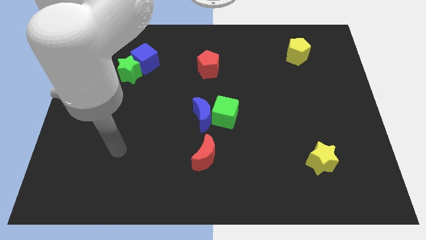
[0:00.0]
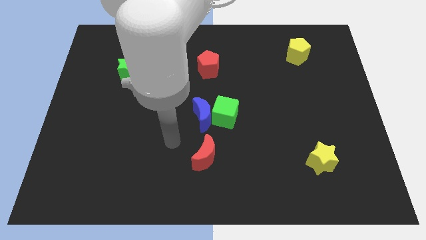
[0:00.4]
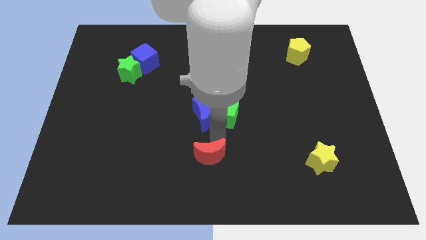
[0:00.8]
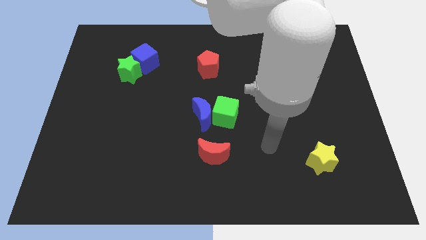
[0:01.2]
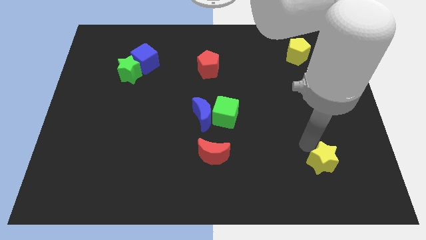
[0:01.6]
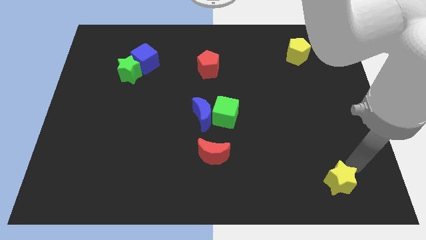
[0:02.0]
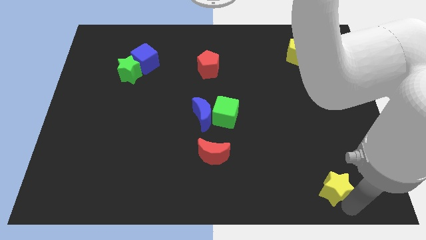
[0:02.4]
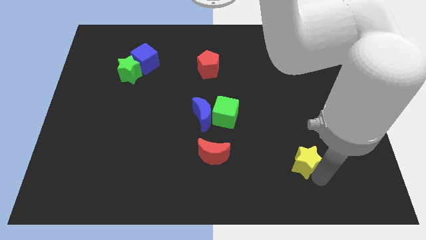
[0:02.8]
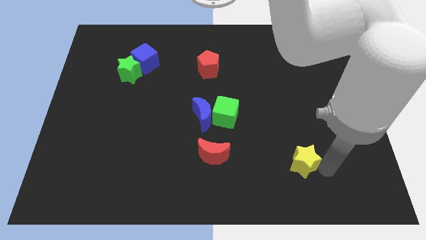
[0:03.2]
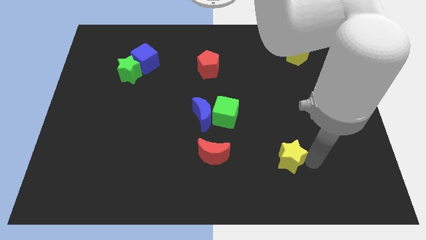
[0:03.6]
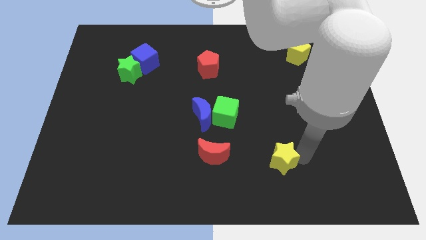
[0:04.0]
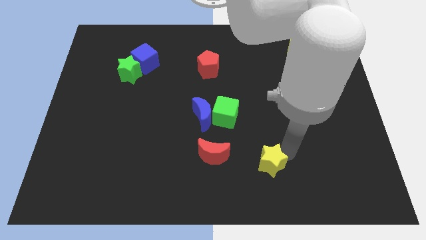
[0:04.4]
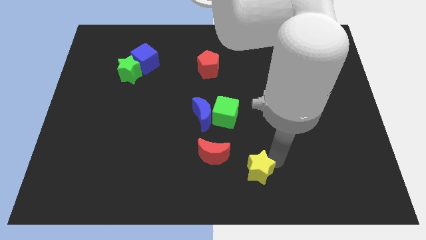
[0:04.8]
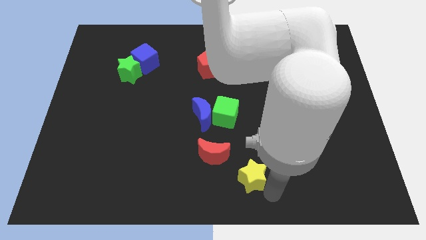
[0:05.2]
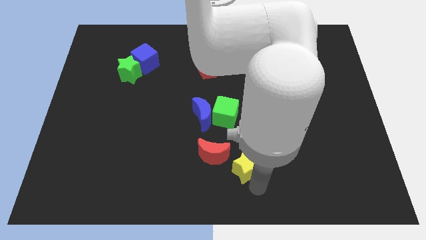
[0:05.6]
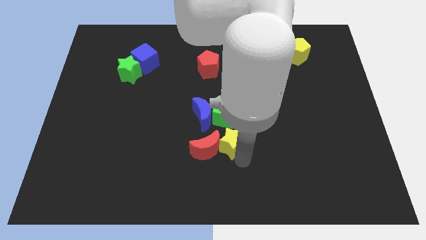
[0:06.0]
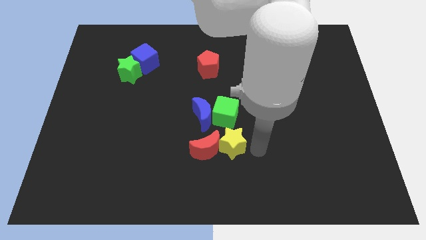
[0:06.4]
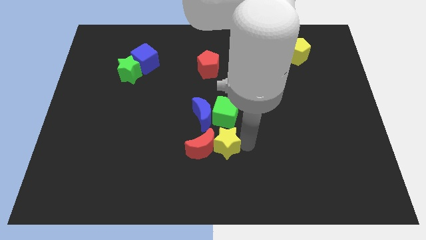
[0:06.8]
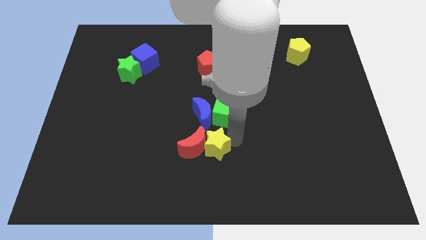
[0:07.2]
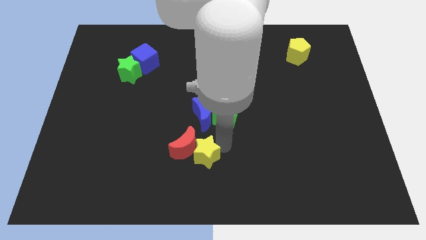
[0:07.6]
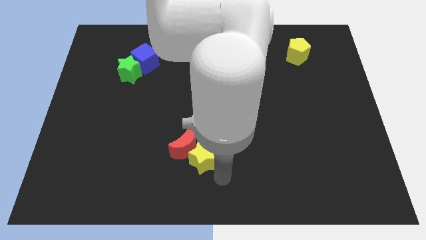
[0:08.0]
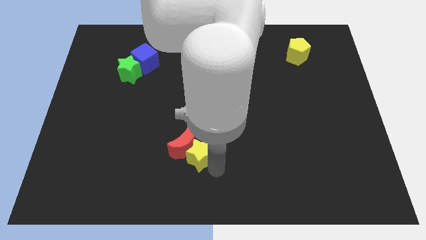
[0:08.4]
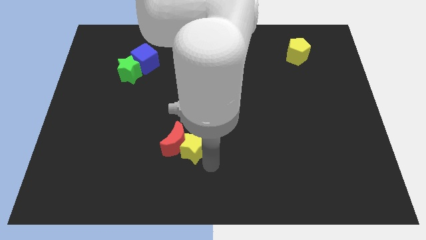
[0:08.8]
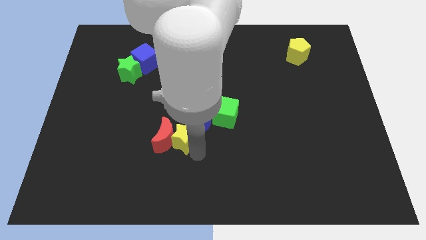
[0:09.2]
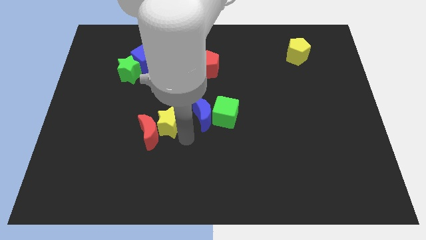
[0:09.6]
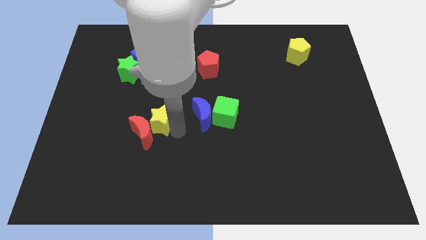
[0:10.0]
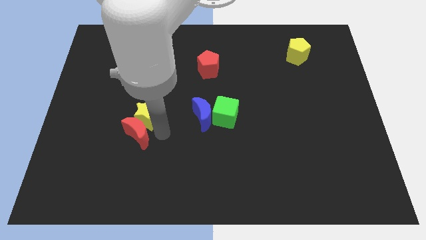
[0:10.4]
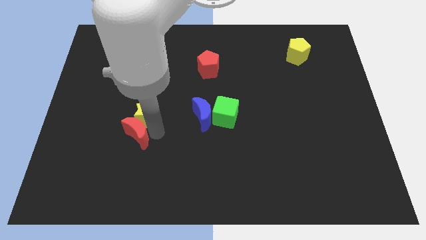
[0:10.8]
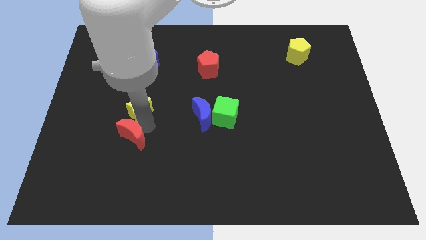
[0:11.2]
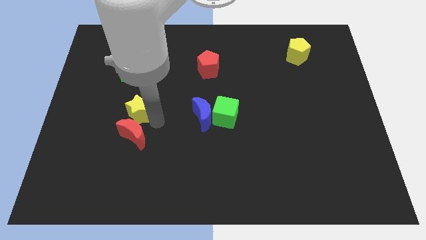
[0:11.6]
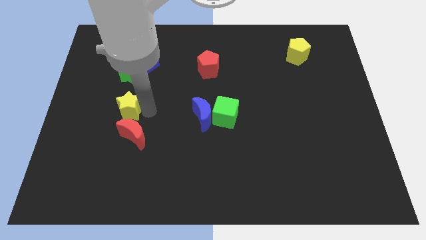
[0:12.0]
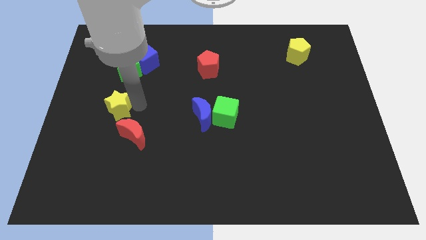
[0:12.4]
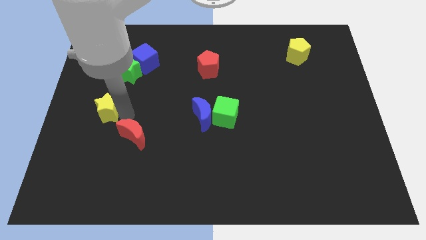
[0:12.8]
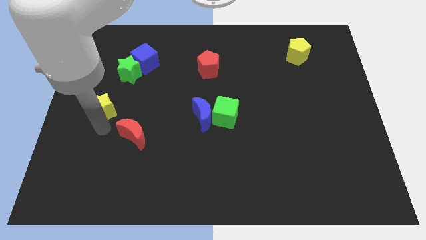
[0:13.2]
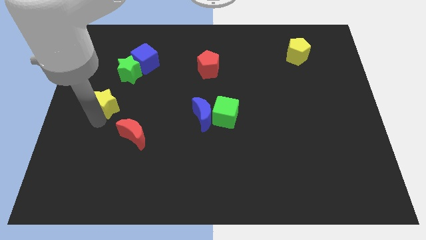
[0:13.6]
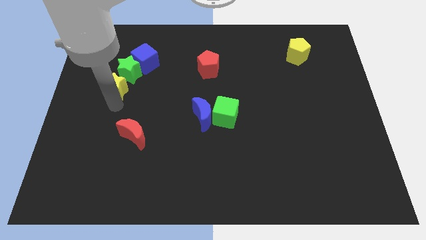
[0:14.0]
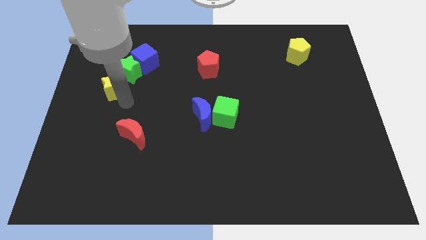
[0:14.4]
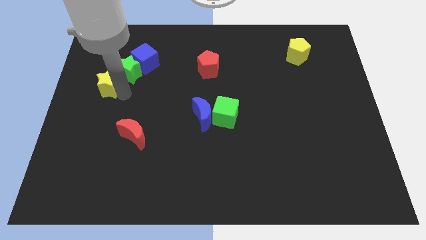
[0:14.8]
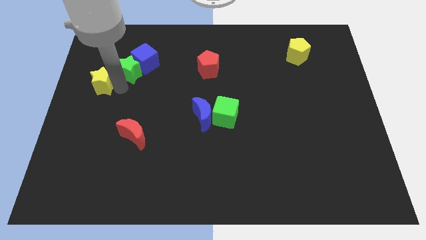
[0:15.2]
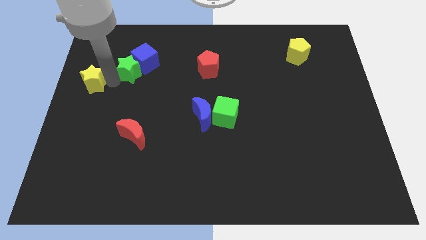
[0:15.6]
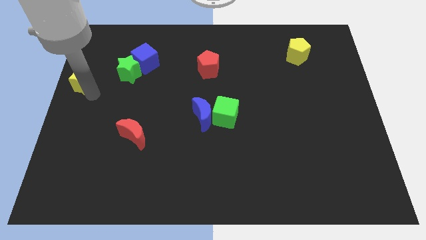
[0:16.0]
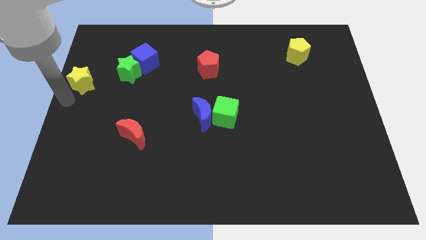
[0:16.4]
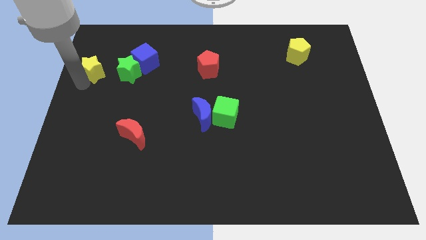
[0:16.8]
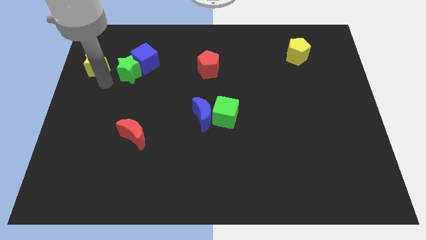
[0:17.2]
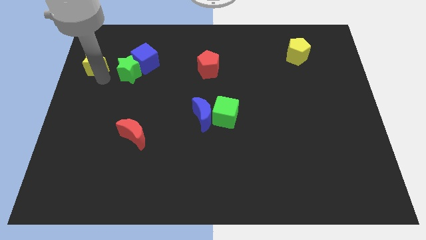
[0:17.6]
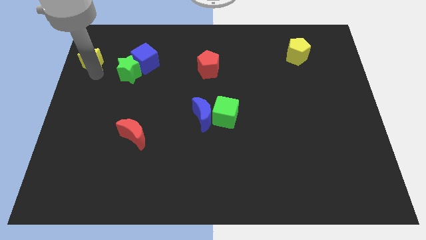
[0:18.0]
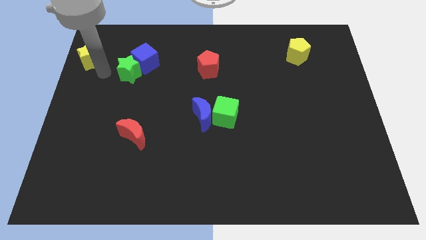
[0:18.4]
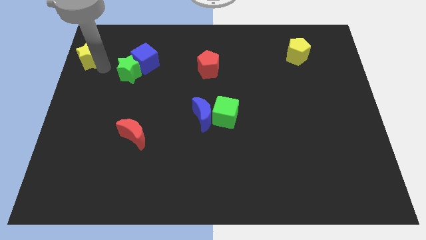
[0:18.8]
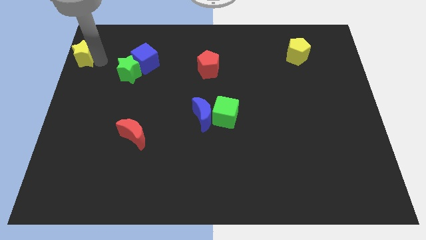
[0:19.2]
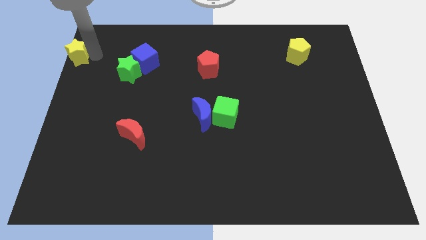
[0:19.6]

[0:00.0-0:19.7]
put the yellow star to the upper left corner

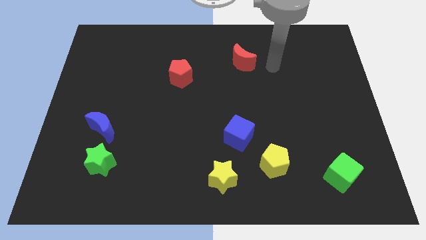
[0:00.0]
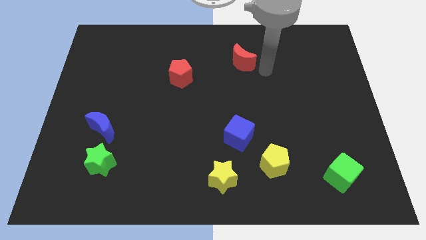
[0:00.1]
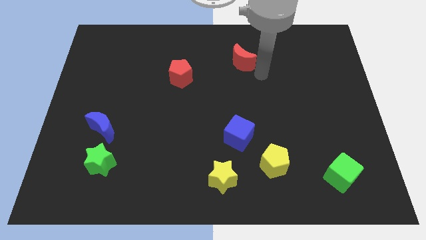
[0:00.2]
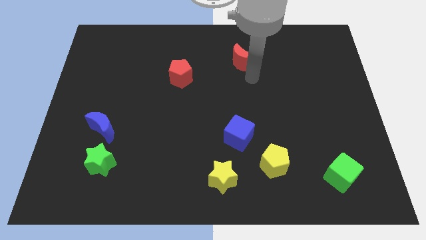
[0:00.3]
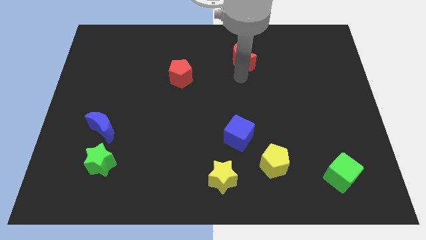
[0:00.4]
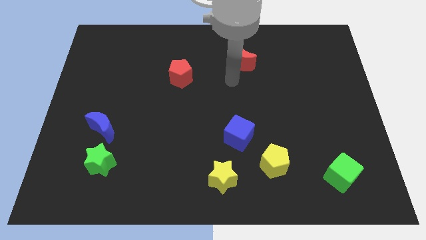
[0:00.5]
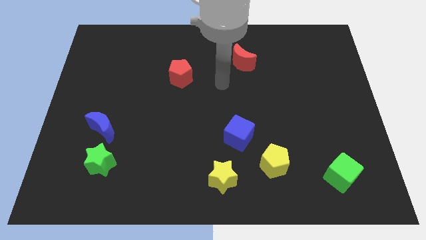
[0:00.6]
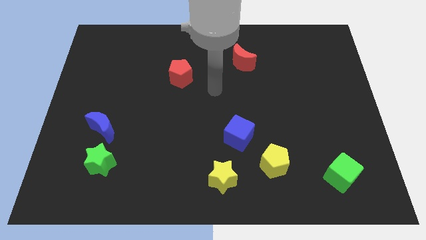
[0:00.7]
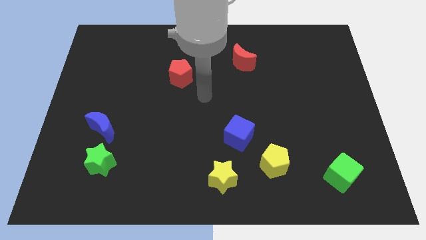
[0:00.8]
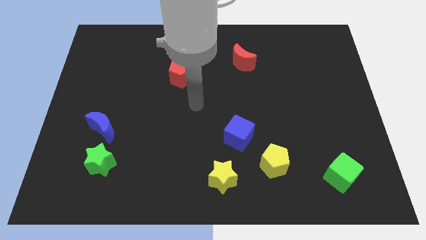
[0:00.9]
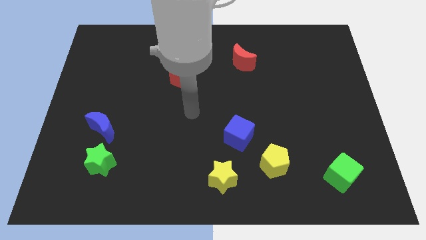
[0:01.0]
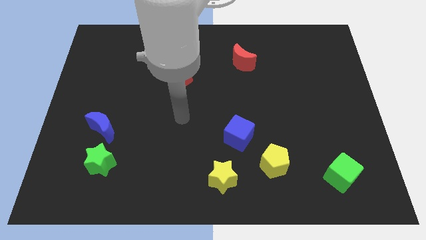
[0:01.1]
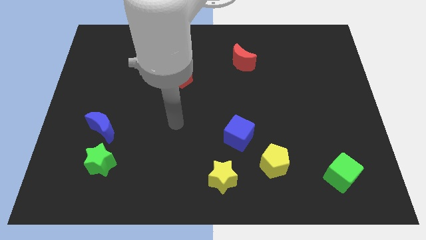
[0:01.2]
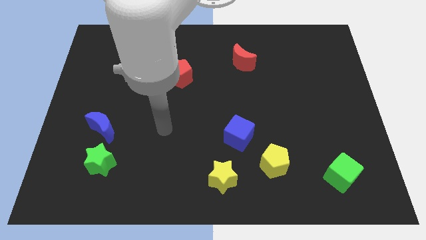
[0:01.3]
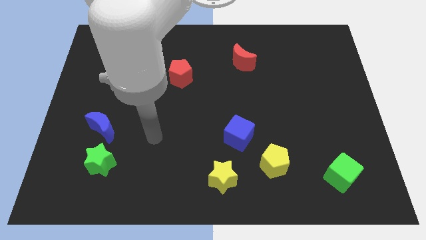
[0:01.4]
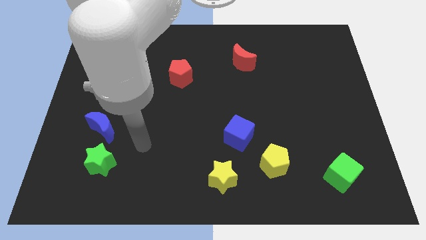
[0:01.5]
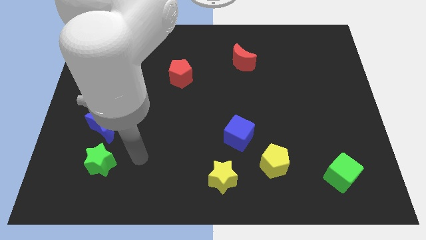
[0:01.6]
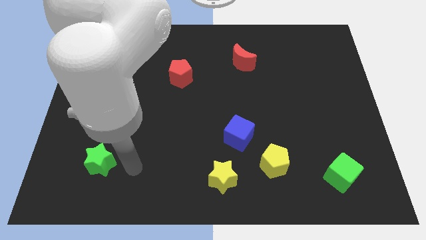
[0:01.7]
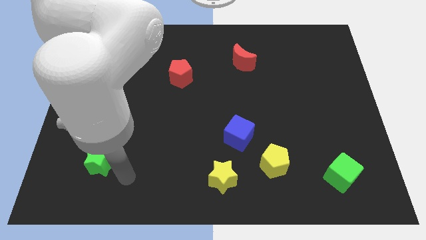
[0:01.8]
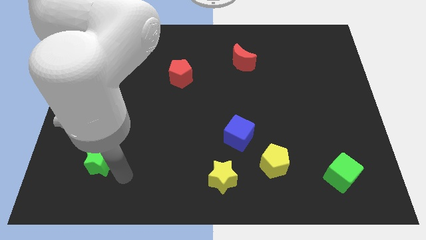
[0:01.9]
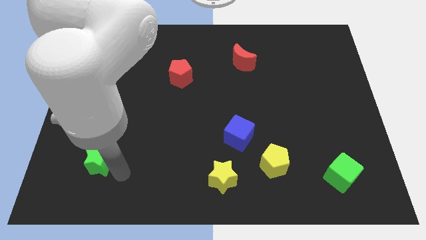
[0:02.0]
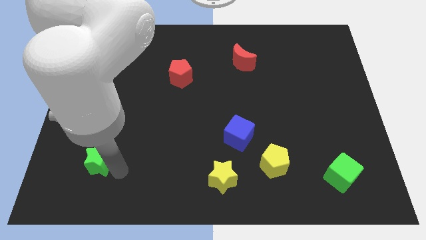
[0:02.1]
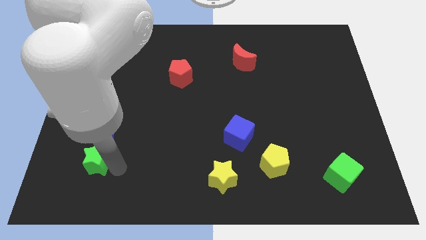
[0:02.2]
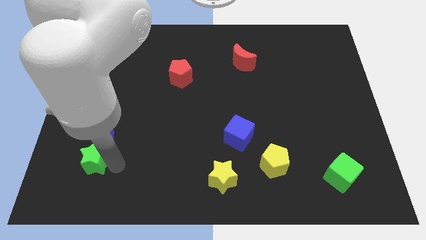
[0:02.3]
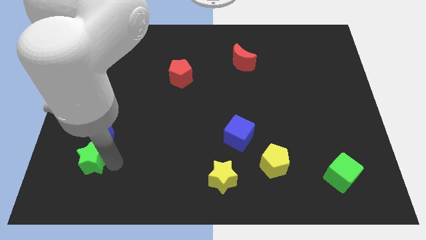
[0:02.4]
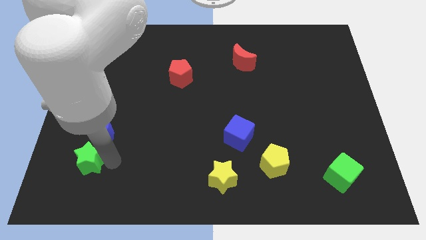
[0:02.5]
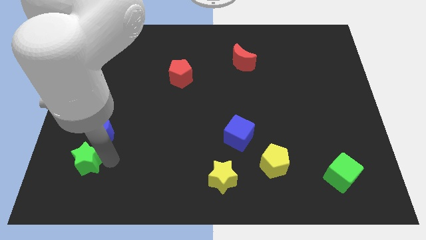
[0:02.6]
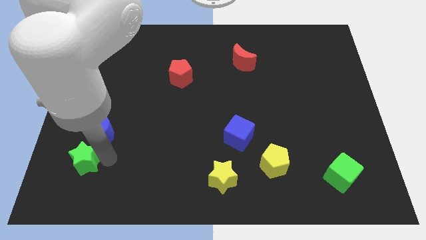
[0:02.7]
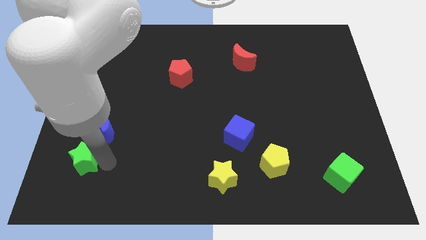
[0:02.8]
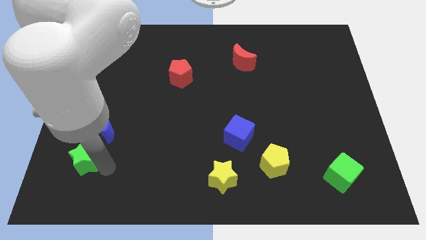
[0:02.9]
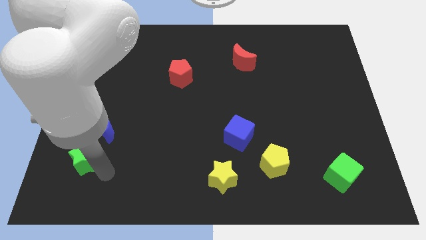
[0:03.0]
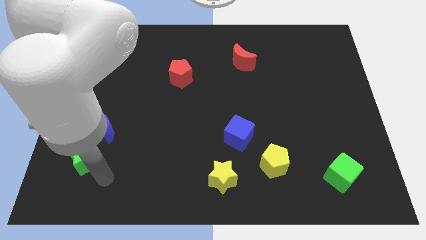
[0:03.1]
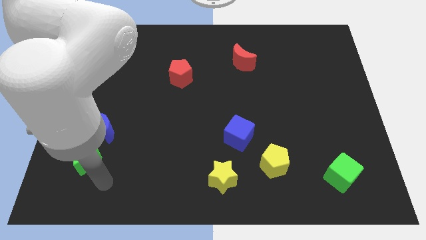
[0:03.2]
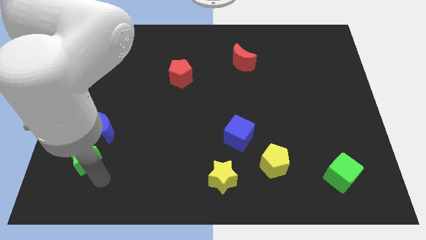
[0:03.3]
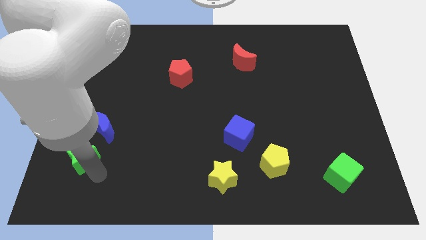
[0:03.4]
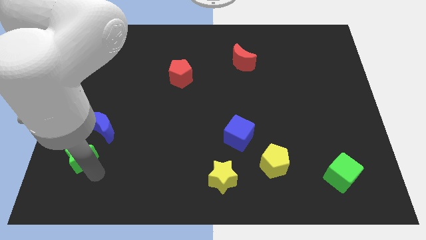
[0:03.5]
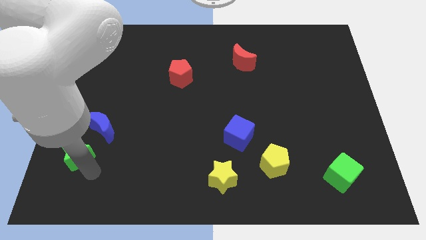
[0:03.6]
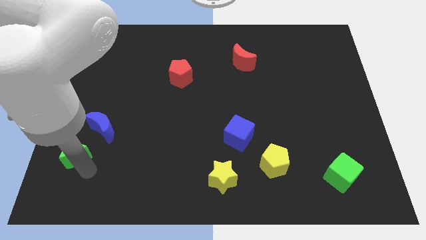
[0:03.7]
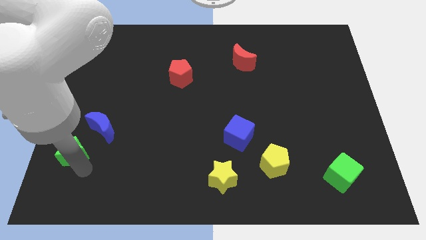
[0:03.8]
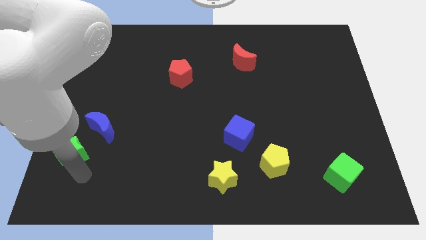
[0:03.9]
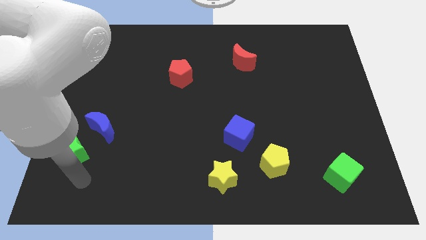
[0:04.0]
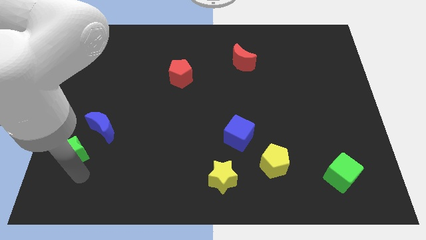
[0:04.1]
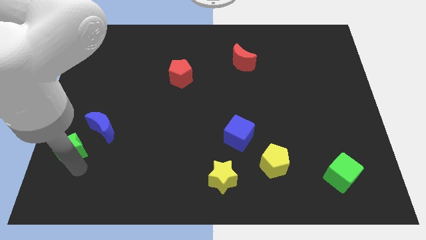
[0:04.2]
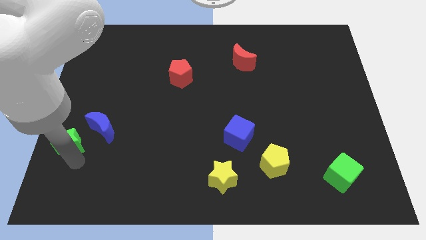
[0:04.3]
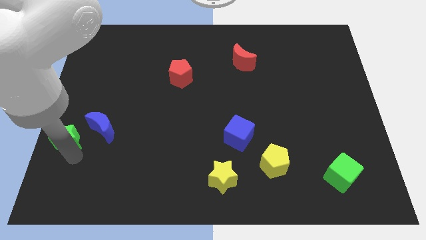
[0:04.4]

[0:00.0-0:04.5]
put the green star to the left side of the board
